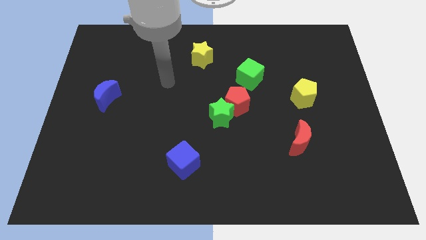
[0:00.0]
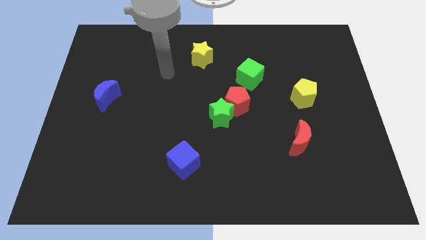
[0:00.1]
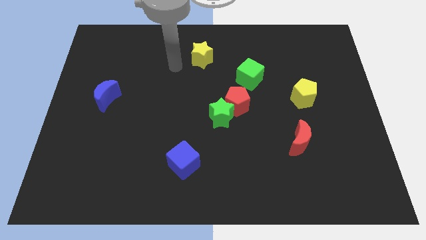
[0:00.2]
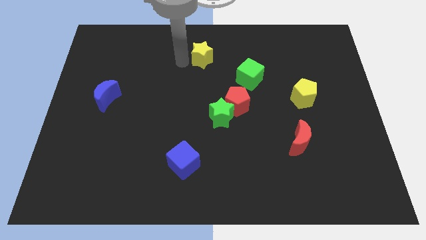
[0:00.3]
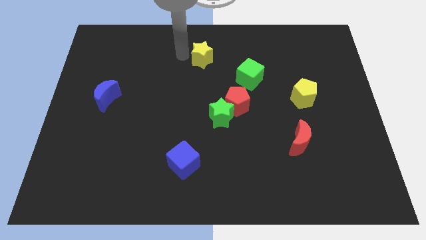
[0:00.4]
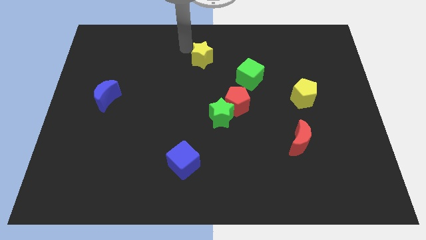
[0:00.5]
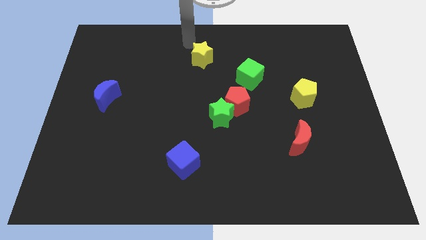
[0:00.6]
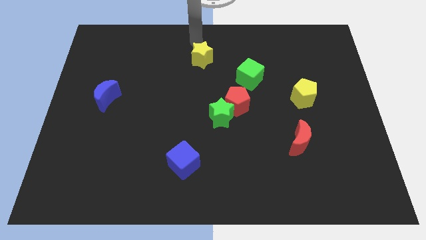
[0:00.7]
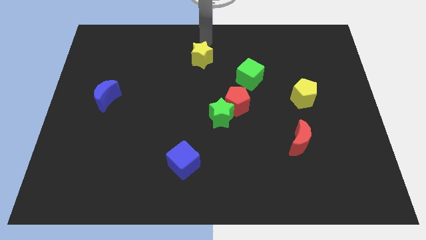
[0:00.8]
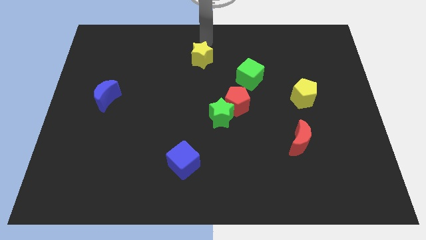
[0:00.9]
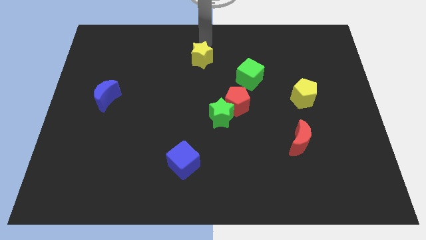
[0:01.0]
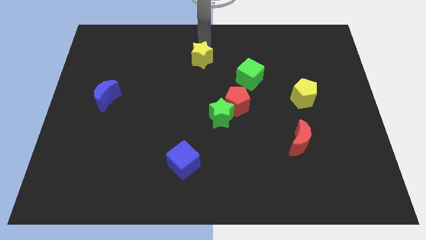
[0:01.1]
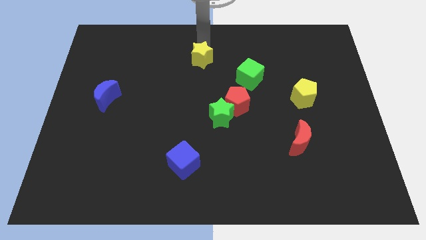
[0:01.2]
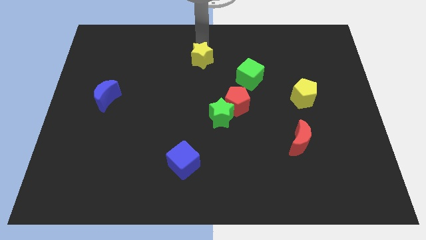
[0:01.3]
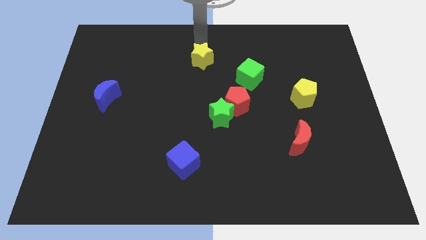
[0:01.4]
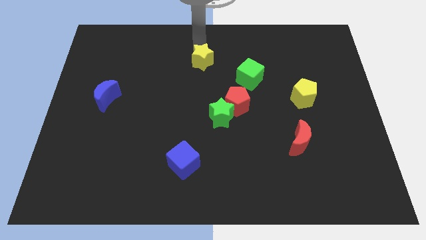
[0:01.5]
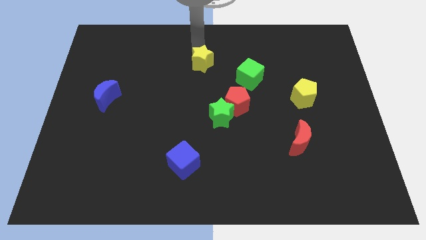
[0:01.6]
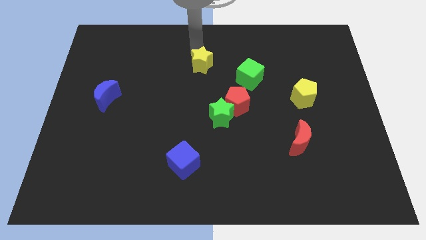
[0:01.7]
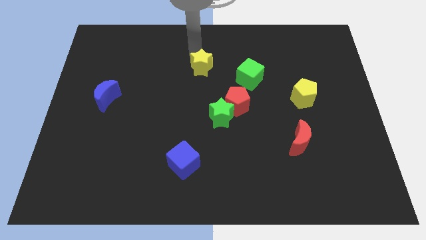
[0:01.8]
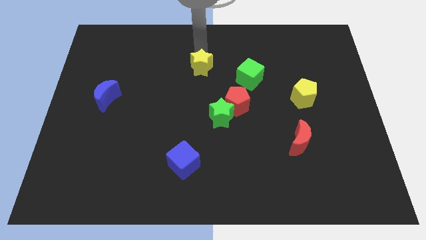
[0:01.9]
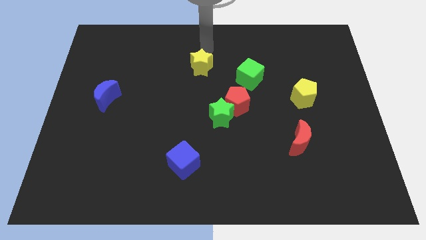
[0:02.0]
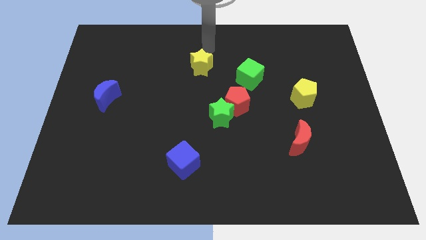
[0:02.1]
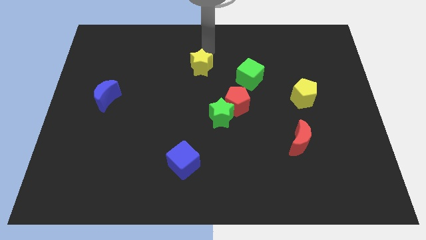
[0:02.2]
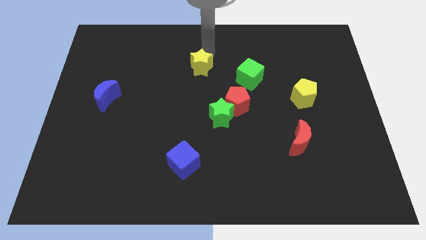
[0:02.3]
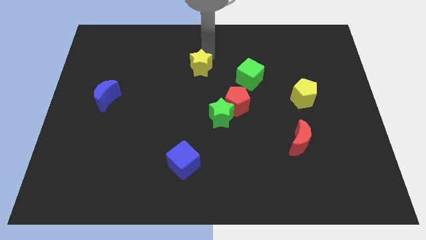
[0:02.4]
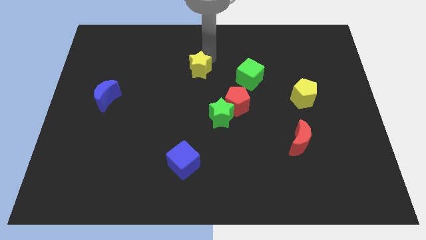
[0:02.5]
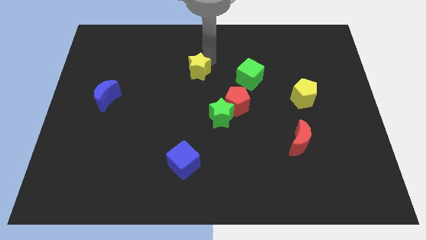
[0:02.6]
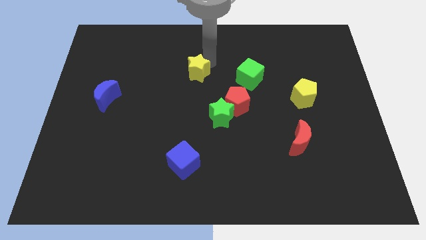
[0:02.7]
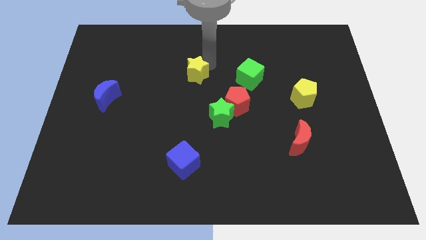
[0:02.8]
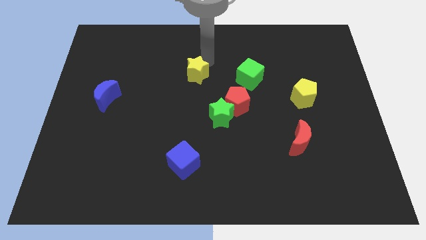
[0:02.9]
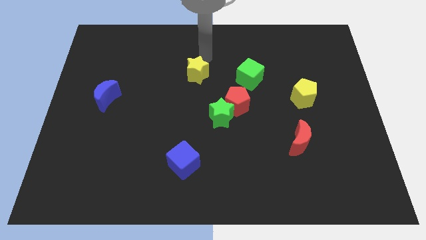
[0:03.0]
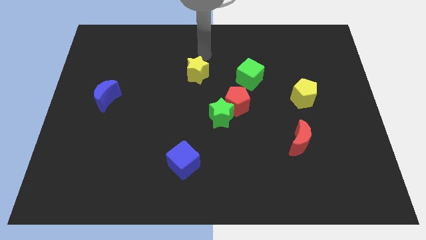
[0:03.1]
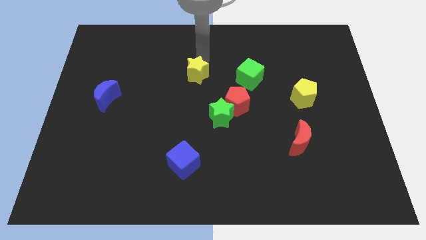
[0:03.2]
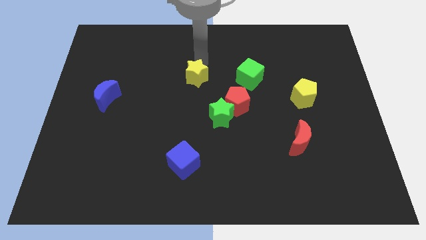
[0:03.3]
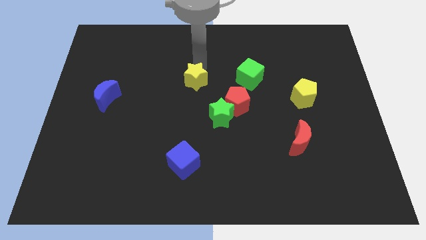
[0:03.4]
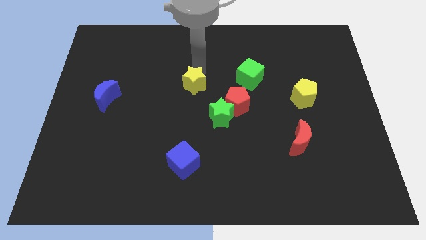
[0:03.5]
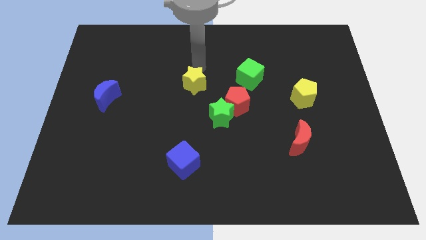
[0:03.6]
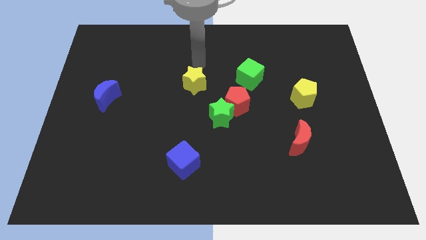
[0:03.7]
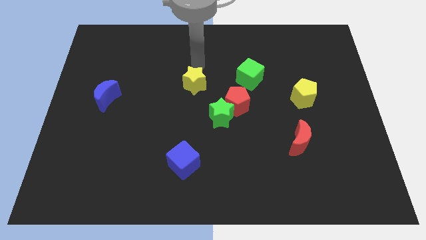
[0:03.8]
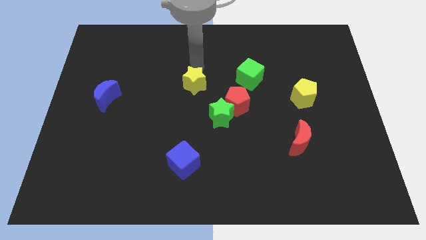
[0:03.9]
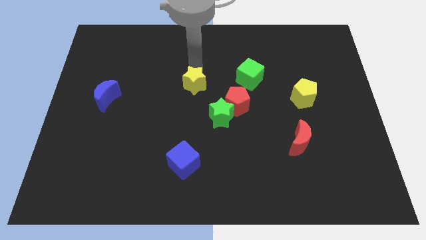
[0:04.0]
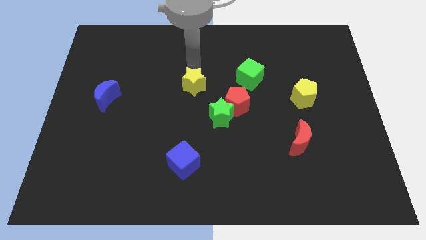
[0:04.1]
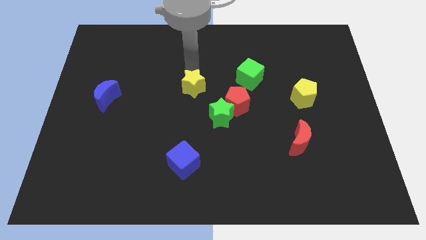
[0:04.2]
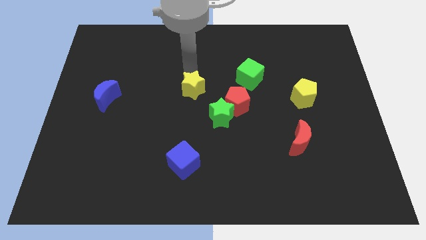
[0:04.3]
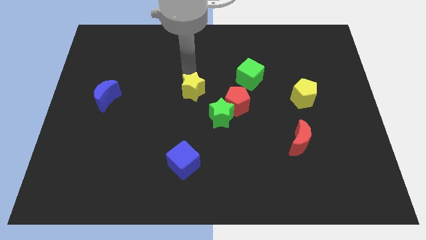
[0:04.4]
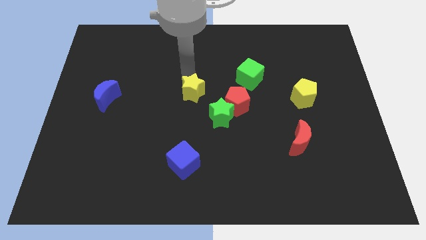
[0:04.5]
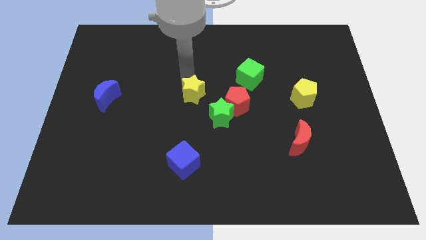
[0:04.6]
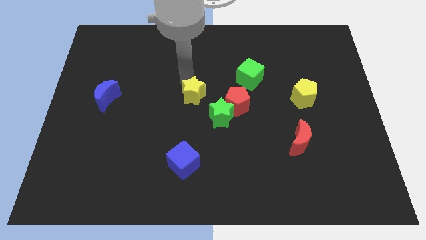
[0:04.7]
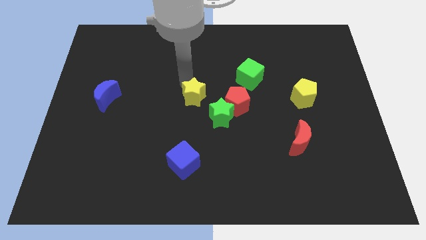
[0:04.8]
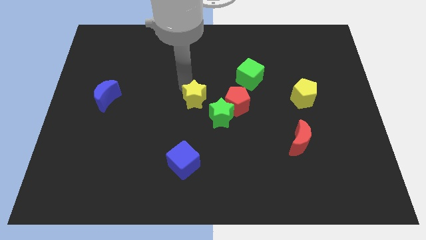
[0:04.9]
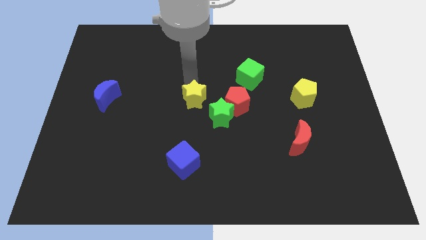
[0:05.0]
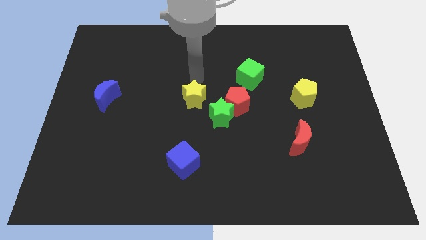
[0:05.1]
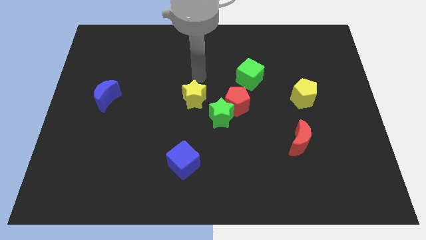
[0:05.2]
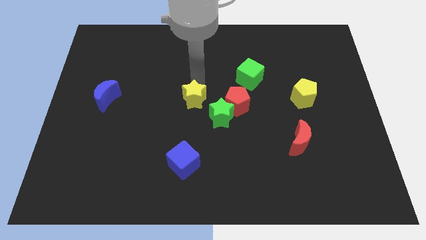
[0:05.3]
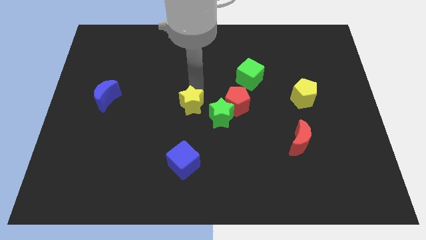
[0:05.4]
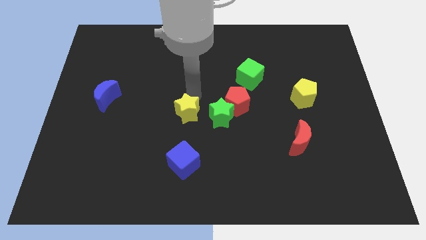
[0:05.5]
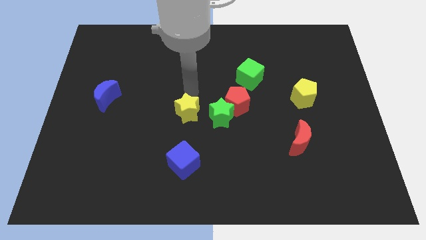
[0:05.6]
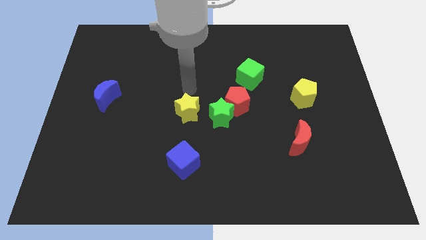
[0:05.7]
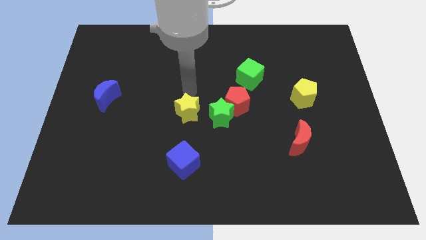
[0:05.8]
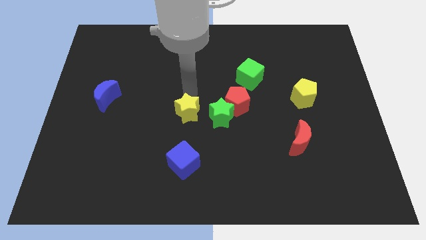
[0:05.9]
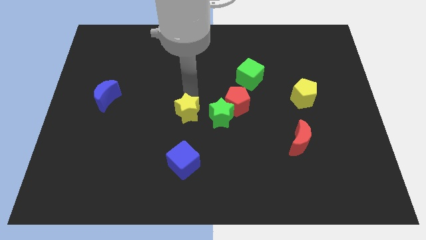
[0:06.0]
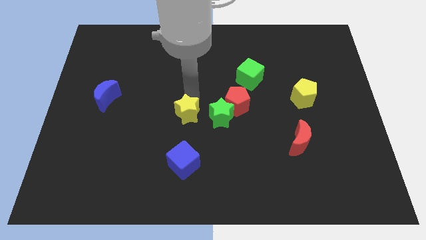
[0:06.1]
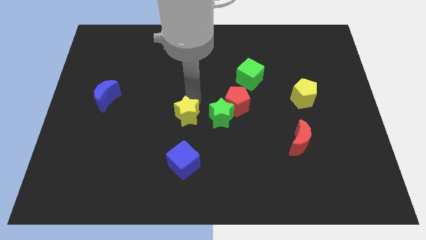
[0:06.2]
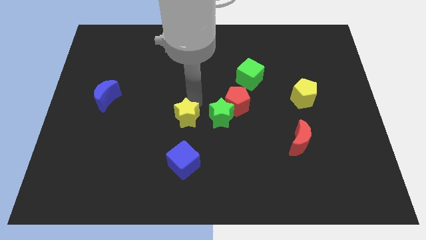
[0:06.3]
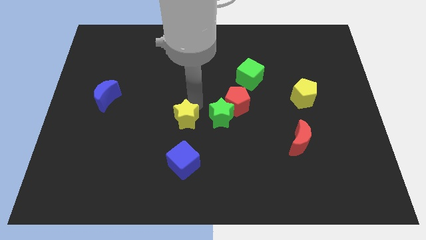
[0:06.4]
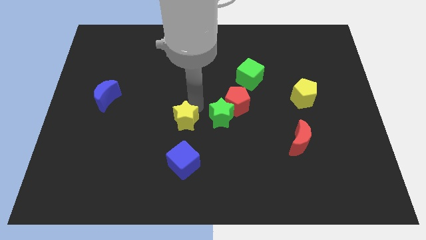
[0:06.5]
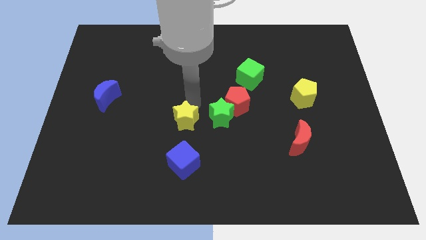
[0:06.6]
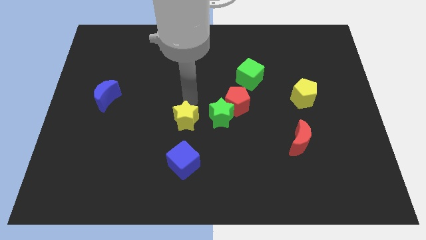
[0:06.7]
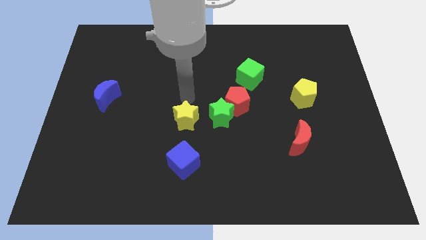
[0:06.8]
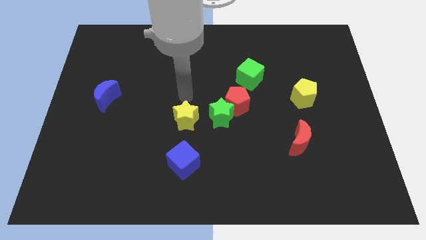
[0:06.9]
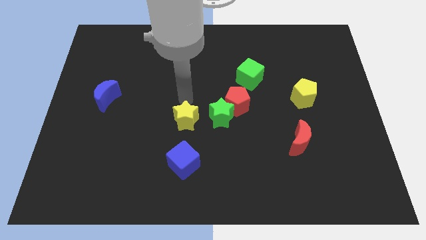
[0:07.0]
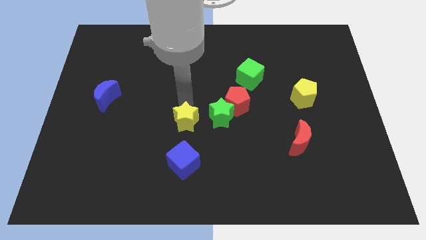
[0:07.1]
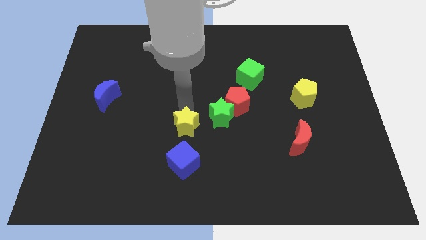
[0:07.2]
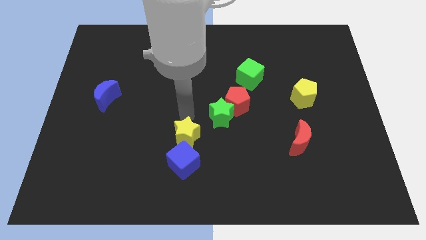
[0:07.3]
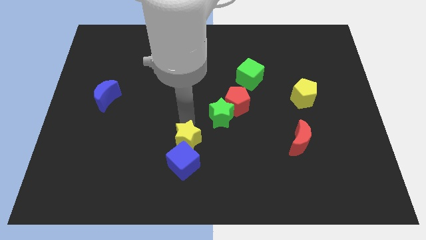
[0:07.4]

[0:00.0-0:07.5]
put the yellow star towards the blue cube
